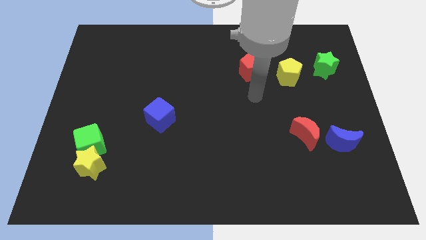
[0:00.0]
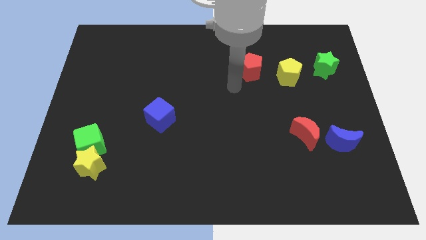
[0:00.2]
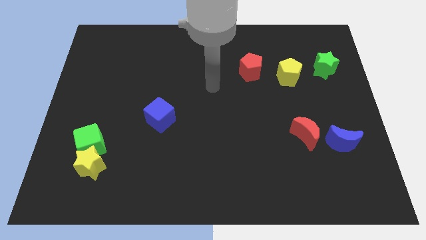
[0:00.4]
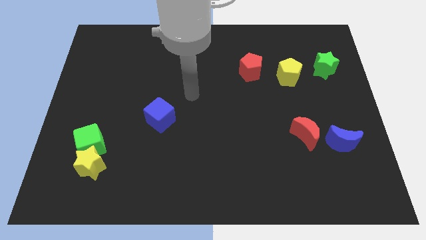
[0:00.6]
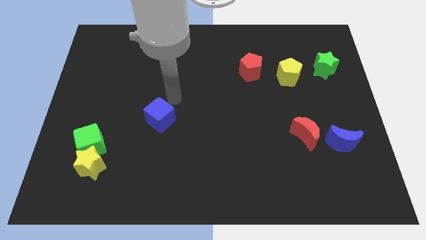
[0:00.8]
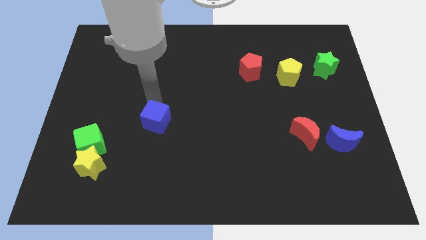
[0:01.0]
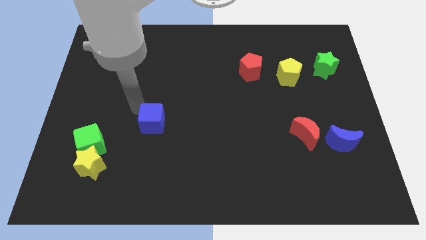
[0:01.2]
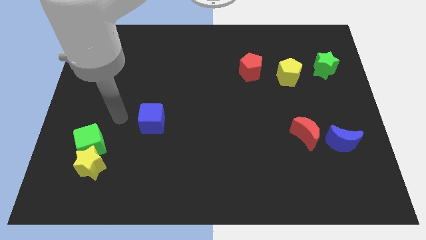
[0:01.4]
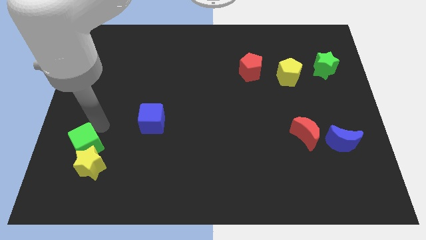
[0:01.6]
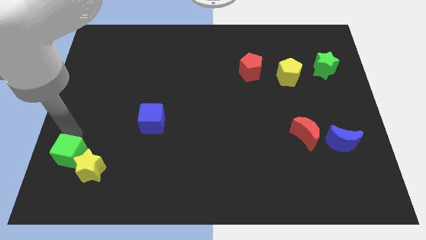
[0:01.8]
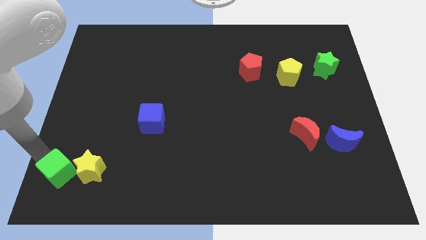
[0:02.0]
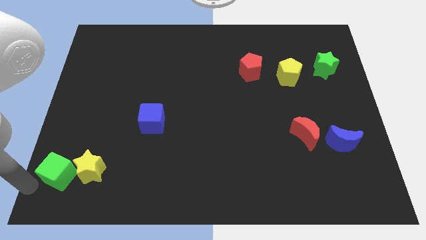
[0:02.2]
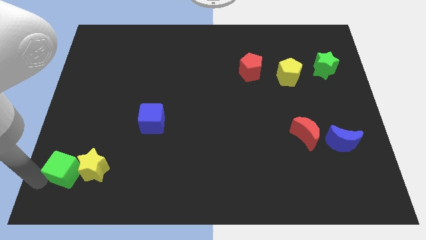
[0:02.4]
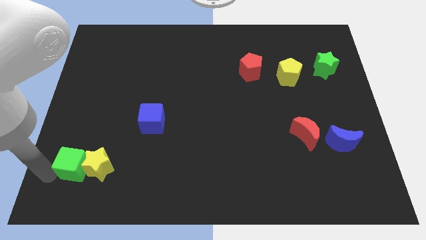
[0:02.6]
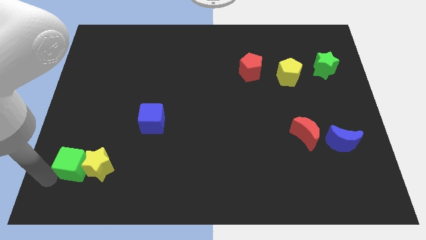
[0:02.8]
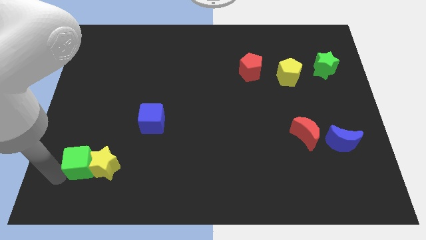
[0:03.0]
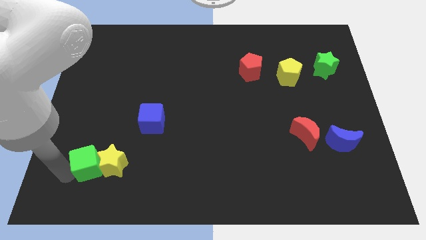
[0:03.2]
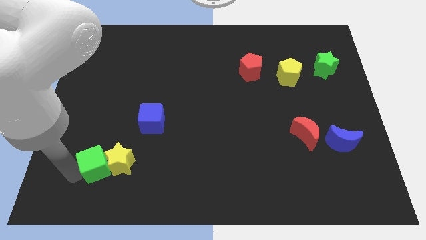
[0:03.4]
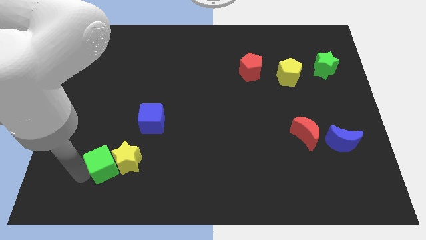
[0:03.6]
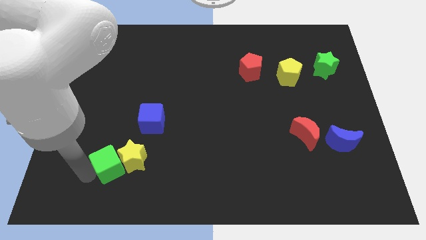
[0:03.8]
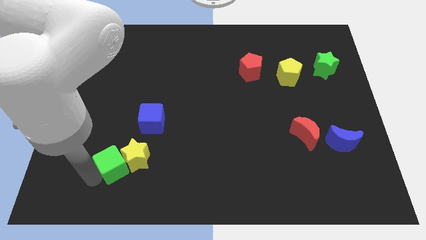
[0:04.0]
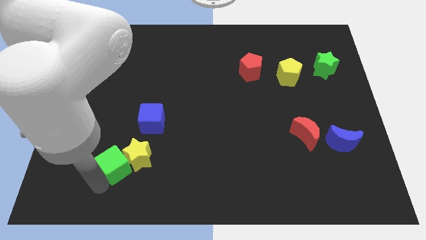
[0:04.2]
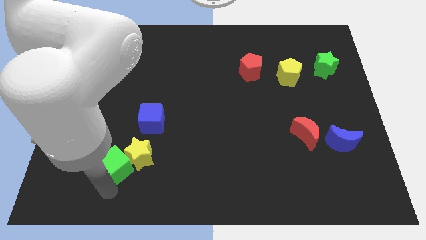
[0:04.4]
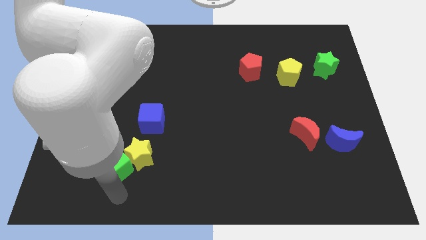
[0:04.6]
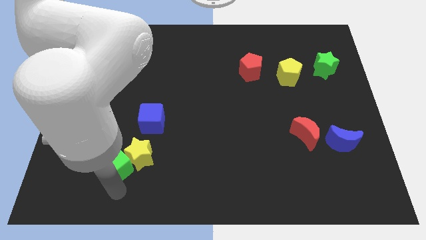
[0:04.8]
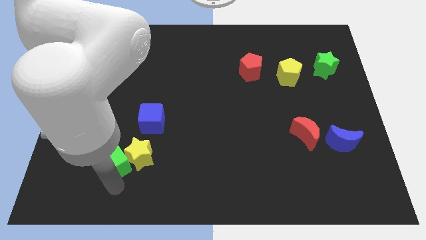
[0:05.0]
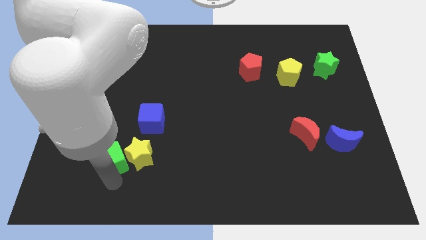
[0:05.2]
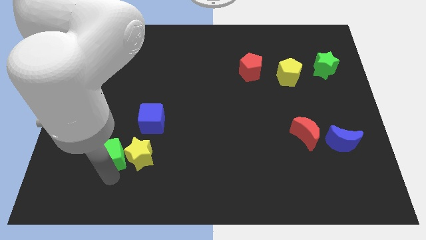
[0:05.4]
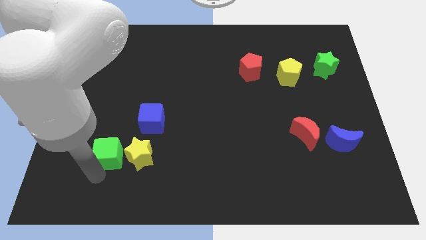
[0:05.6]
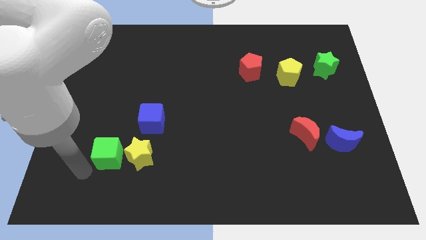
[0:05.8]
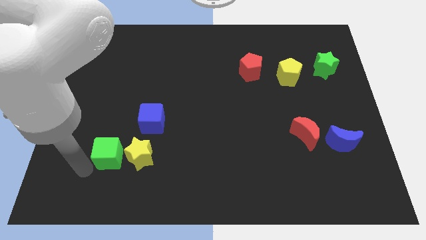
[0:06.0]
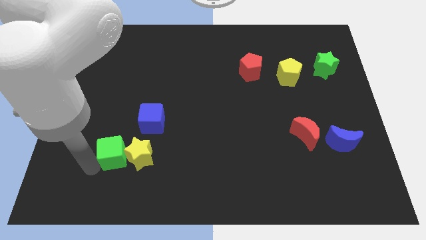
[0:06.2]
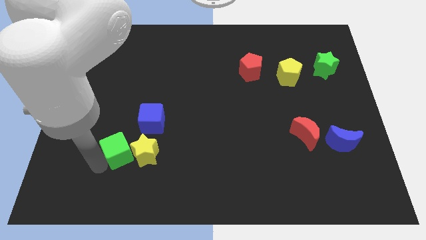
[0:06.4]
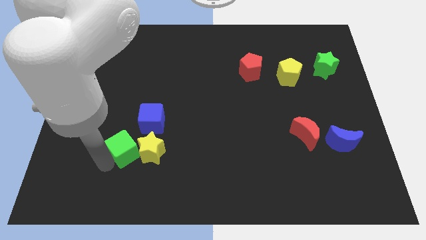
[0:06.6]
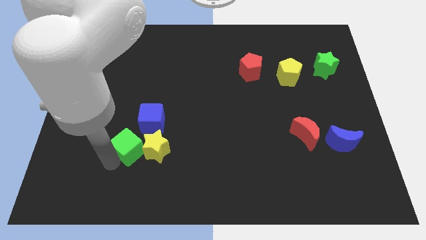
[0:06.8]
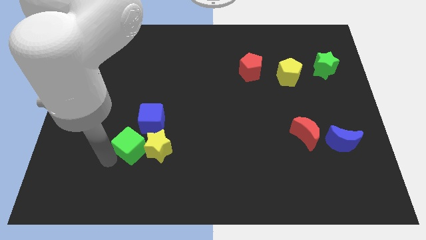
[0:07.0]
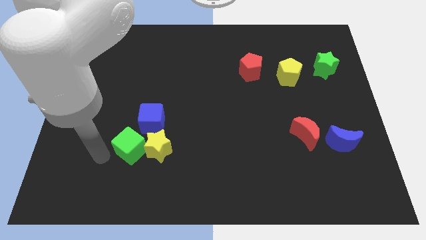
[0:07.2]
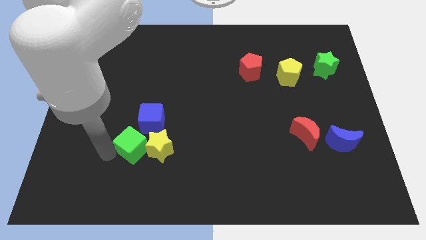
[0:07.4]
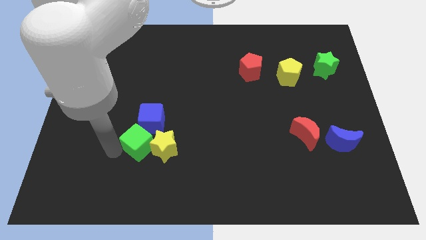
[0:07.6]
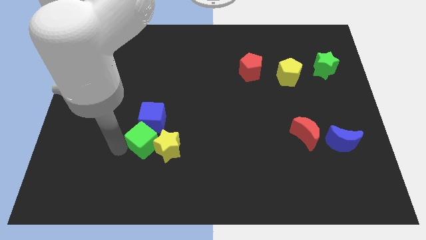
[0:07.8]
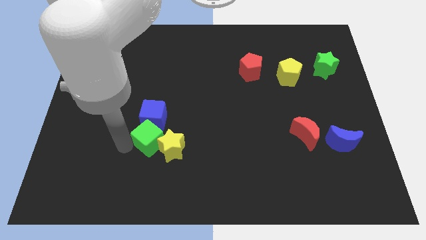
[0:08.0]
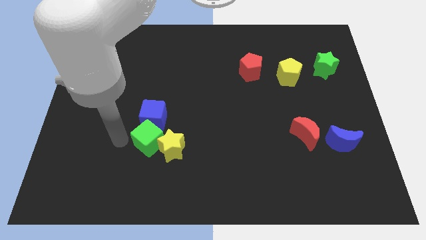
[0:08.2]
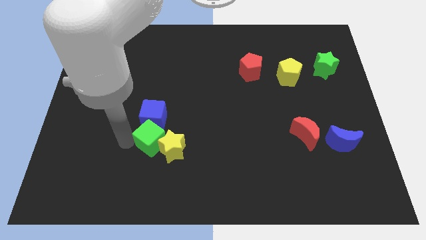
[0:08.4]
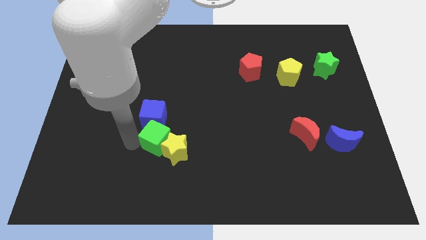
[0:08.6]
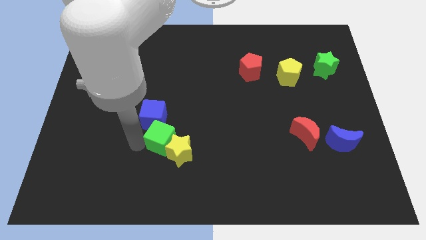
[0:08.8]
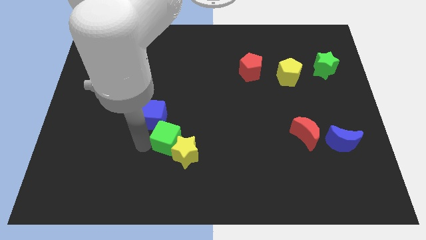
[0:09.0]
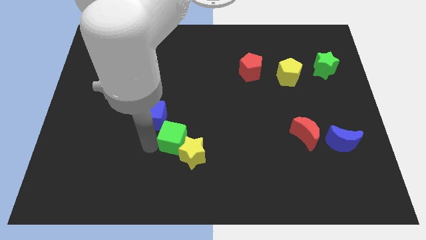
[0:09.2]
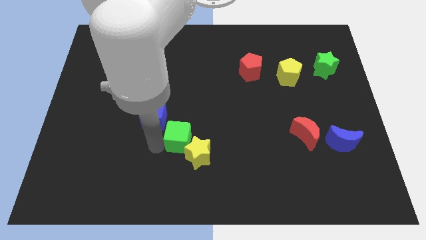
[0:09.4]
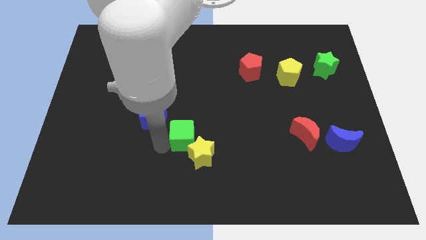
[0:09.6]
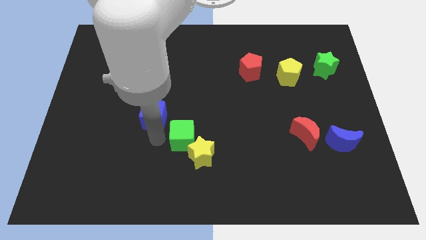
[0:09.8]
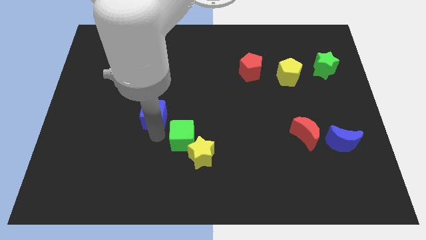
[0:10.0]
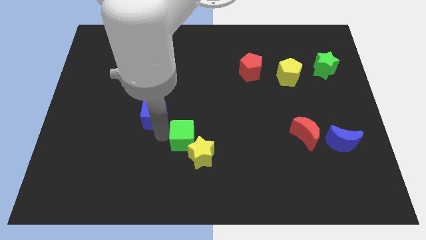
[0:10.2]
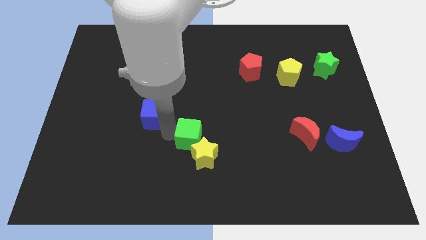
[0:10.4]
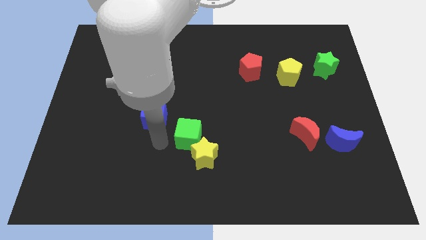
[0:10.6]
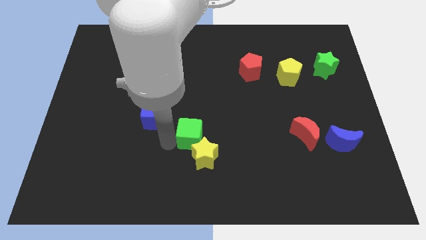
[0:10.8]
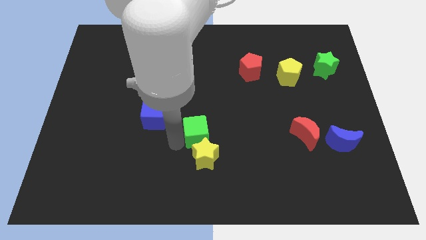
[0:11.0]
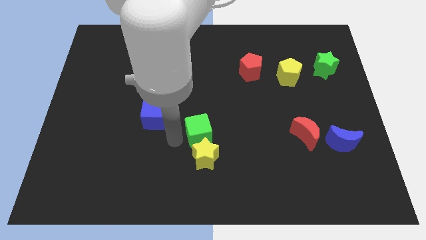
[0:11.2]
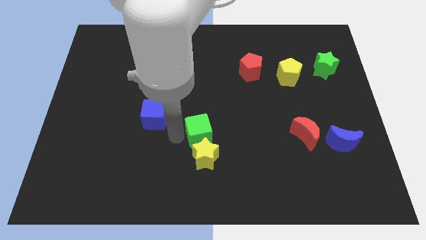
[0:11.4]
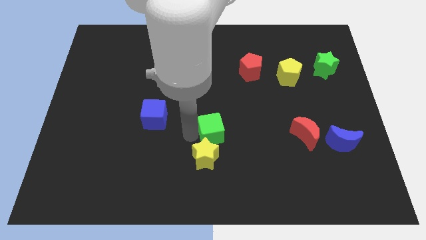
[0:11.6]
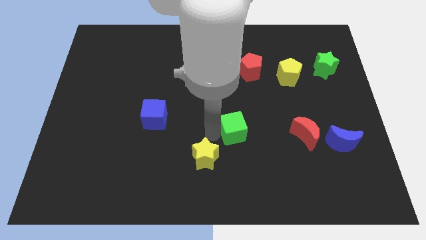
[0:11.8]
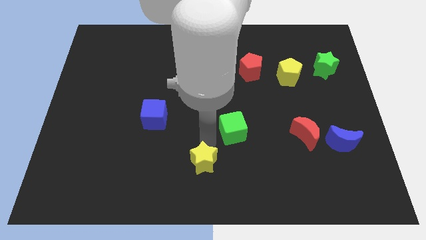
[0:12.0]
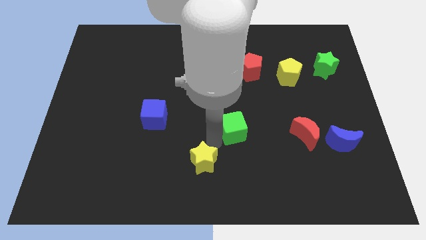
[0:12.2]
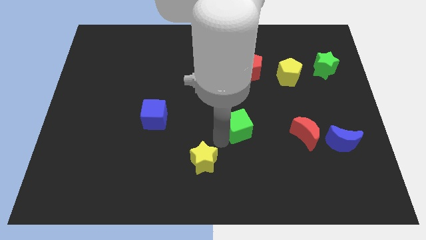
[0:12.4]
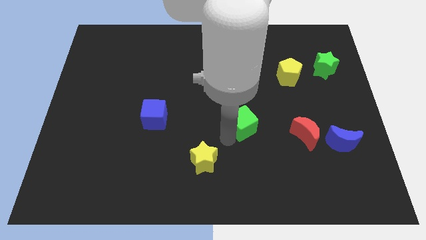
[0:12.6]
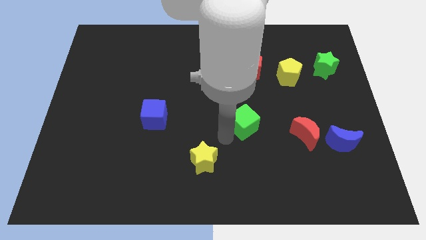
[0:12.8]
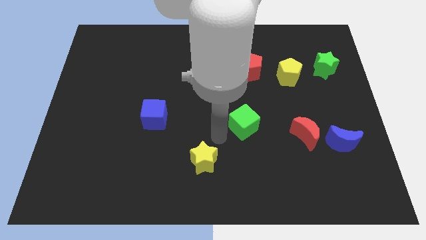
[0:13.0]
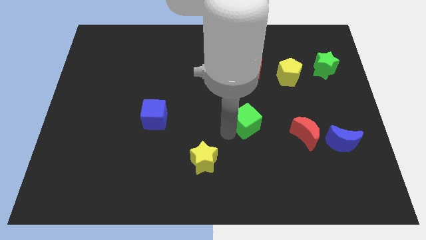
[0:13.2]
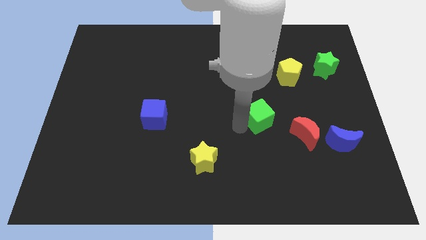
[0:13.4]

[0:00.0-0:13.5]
move the green cube to the top left of the red moon
